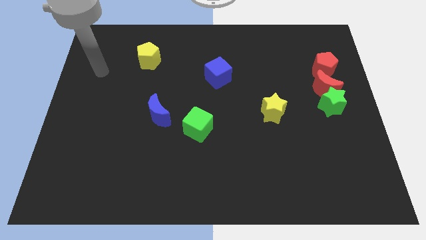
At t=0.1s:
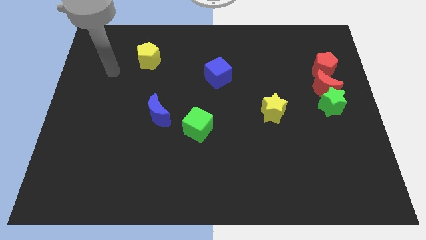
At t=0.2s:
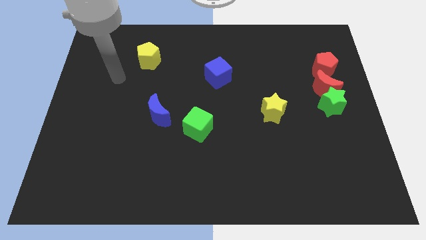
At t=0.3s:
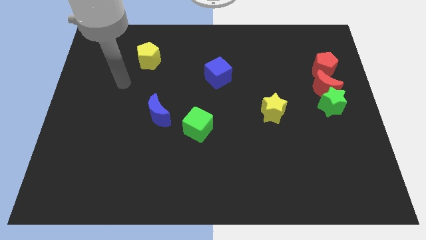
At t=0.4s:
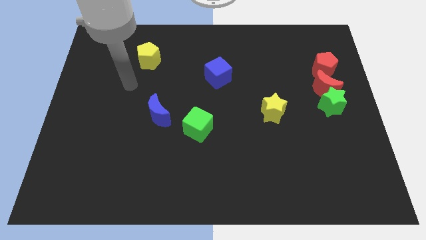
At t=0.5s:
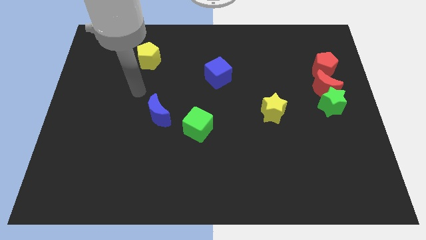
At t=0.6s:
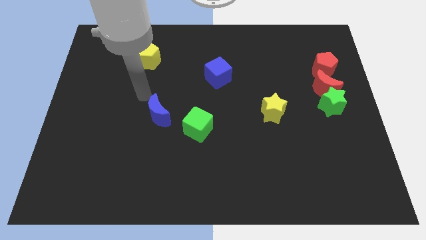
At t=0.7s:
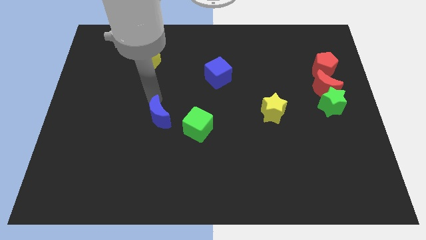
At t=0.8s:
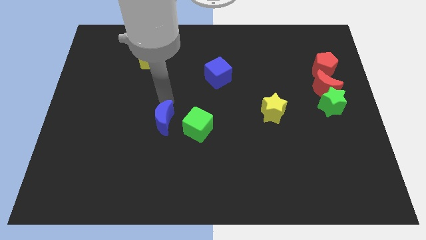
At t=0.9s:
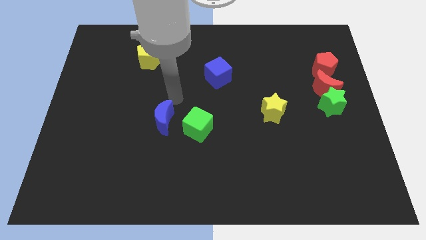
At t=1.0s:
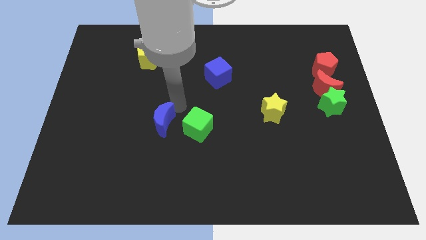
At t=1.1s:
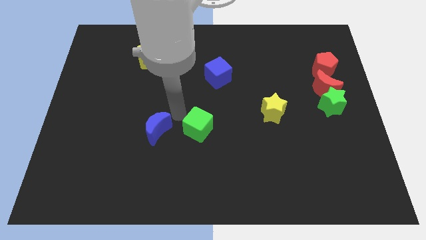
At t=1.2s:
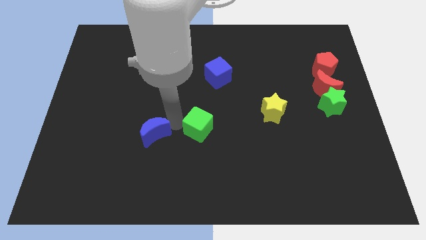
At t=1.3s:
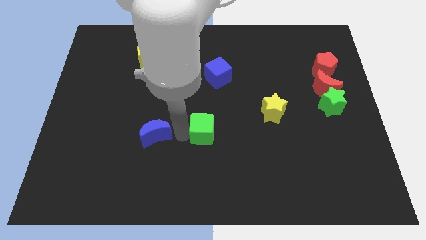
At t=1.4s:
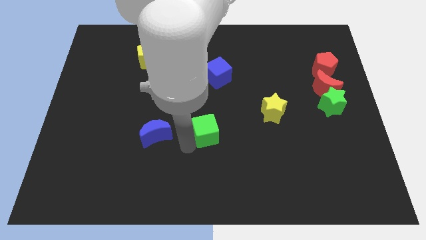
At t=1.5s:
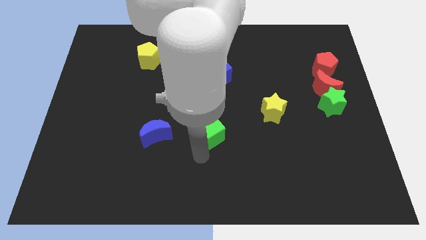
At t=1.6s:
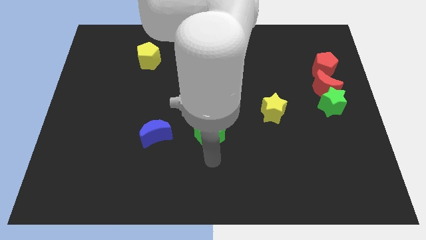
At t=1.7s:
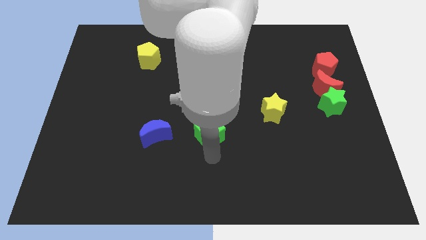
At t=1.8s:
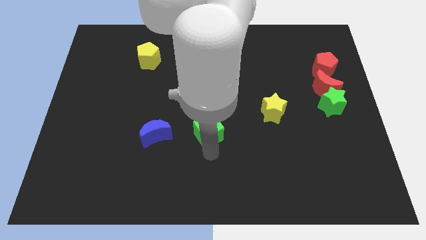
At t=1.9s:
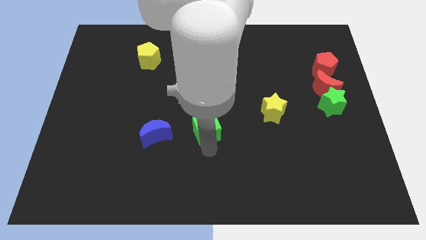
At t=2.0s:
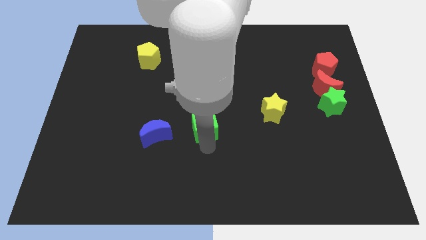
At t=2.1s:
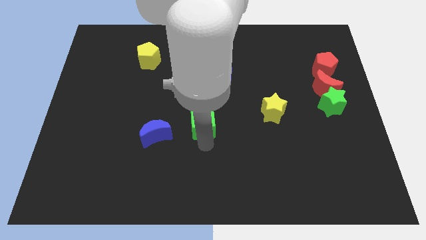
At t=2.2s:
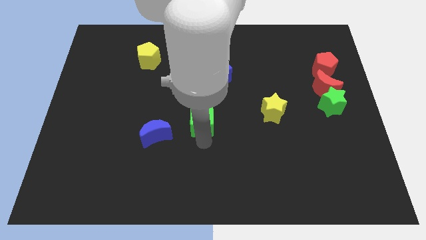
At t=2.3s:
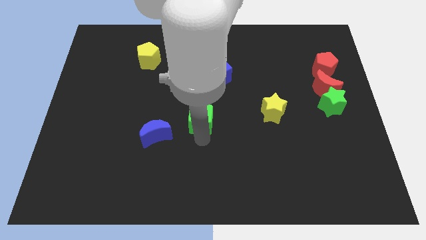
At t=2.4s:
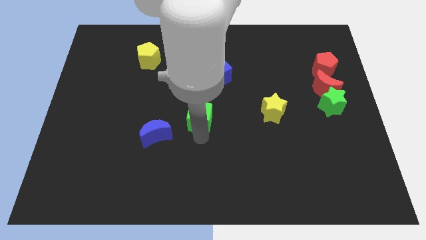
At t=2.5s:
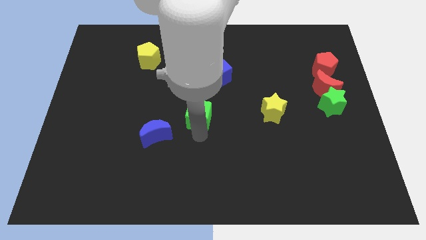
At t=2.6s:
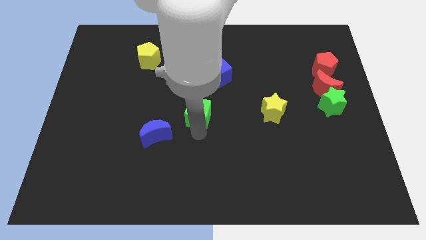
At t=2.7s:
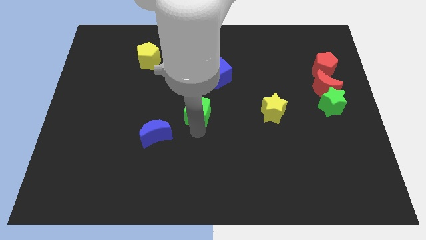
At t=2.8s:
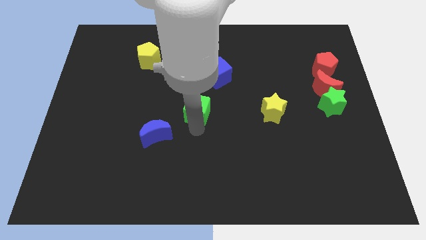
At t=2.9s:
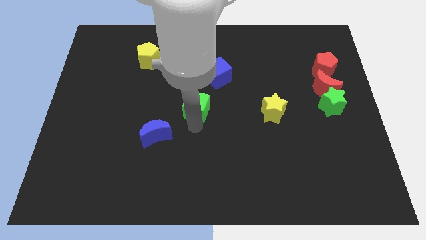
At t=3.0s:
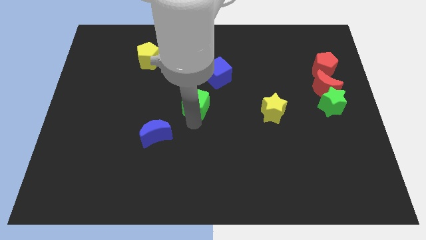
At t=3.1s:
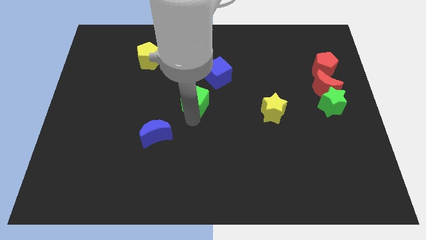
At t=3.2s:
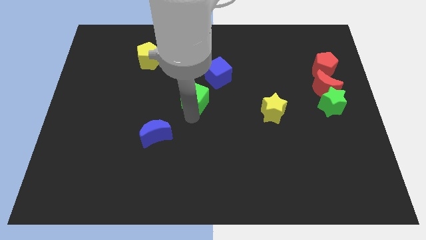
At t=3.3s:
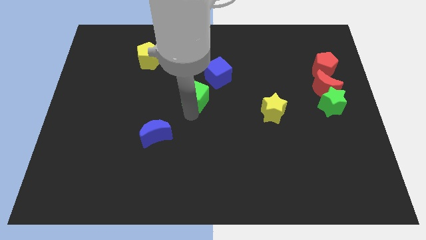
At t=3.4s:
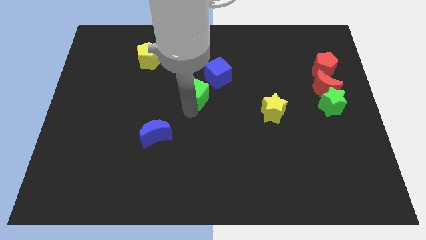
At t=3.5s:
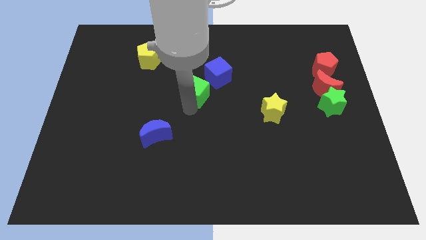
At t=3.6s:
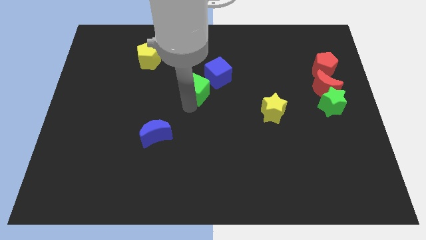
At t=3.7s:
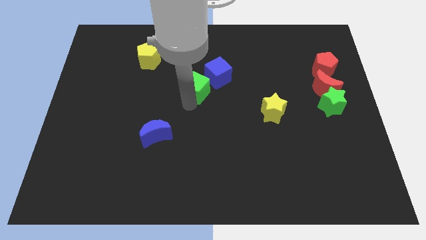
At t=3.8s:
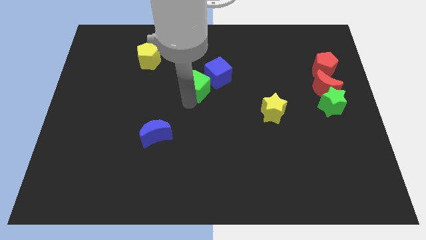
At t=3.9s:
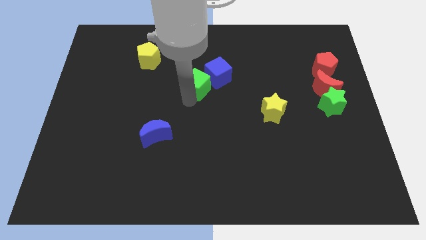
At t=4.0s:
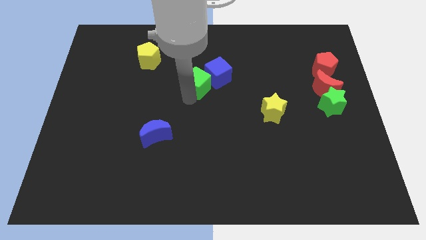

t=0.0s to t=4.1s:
push the green cube next to the blue cube

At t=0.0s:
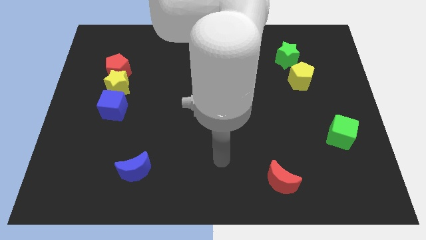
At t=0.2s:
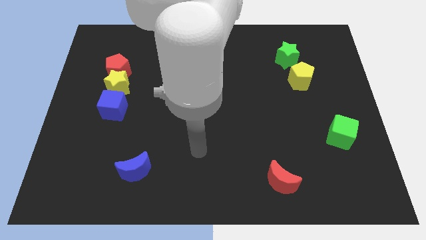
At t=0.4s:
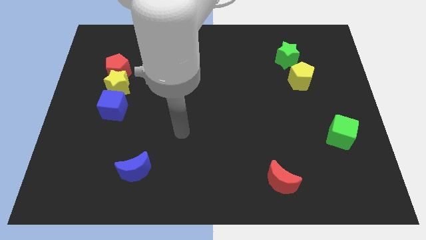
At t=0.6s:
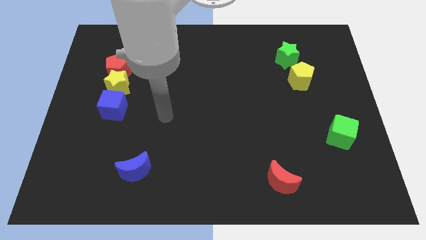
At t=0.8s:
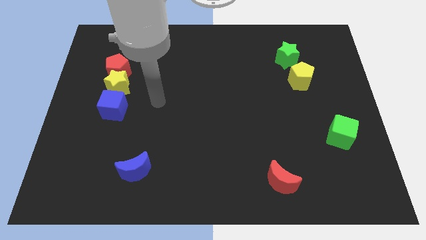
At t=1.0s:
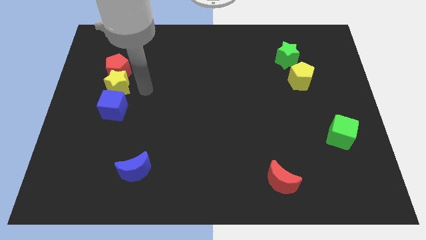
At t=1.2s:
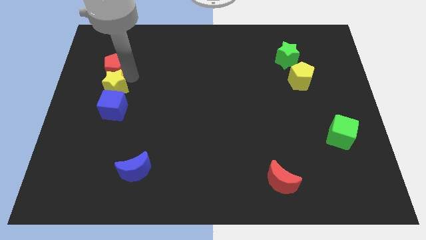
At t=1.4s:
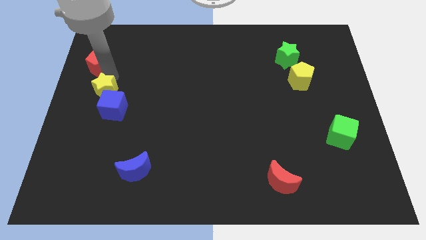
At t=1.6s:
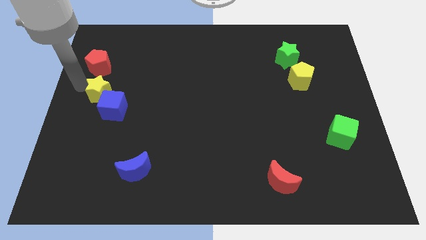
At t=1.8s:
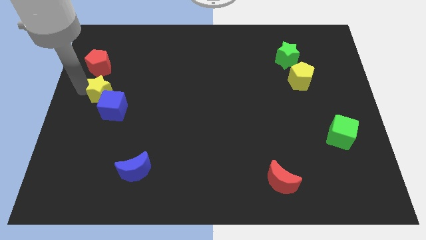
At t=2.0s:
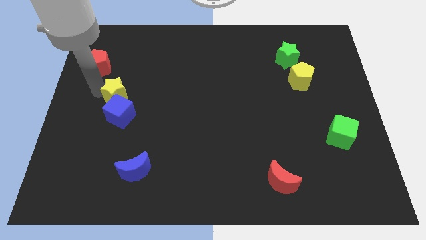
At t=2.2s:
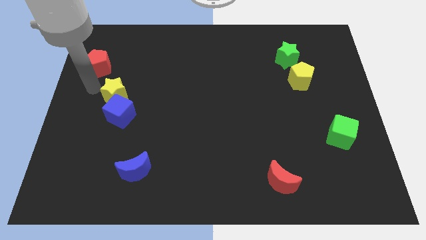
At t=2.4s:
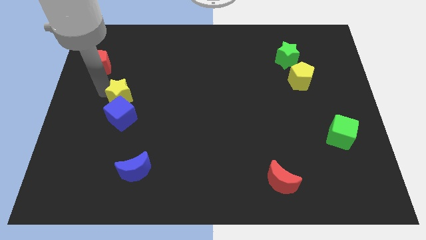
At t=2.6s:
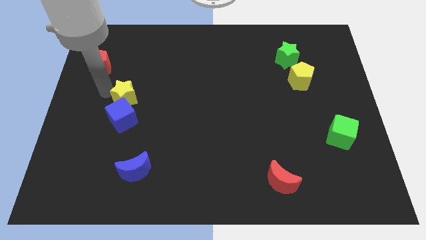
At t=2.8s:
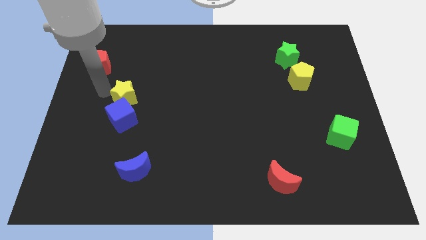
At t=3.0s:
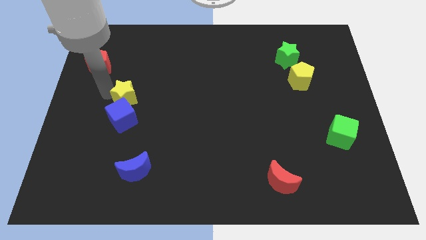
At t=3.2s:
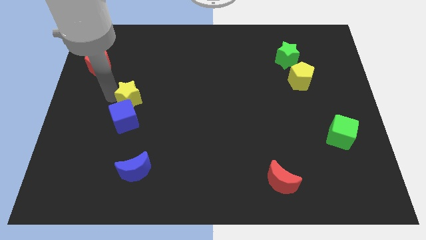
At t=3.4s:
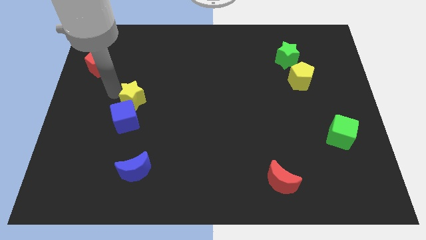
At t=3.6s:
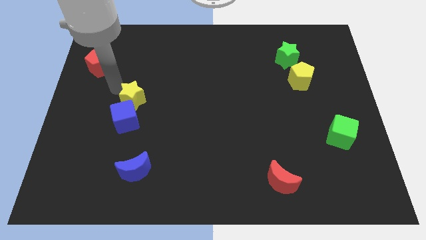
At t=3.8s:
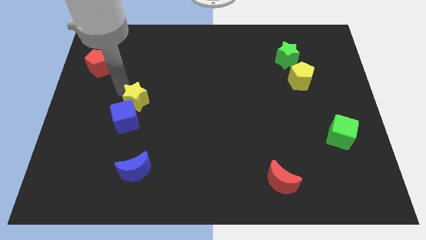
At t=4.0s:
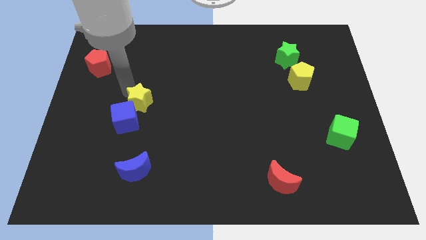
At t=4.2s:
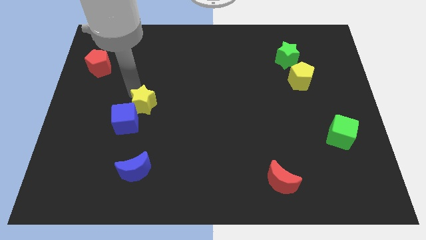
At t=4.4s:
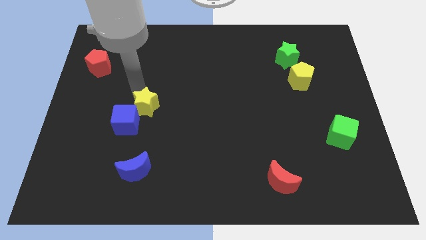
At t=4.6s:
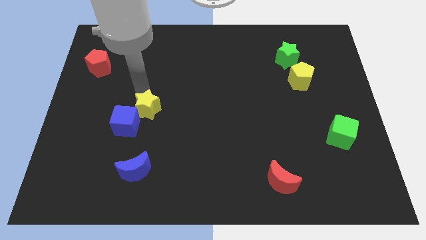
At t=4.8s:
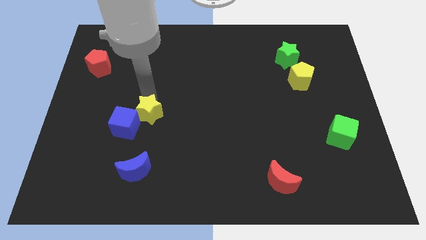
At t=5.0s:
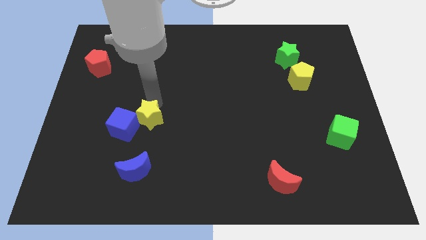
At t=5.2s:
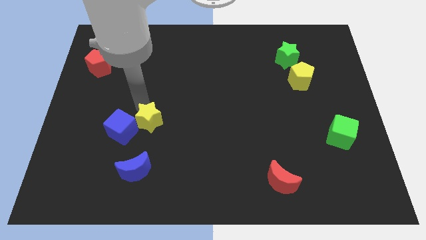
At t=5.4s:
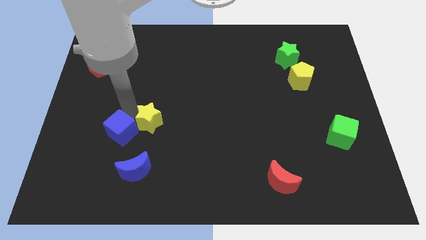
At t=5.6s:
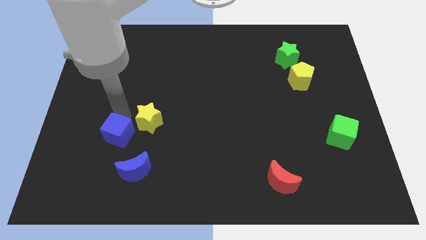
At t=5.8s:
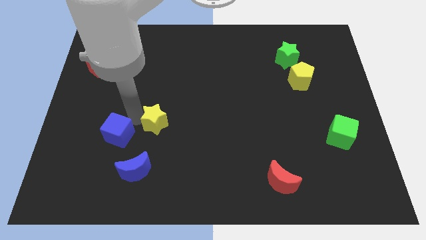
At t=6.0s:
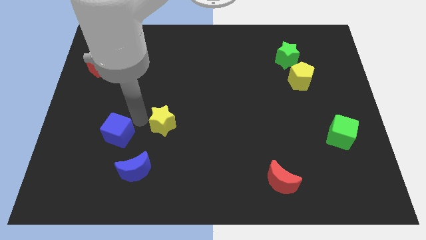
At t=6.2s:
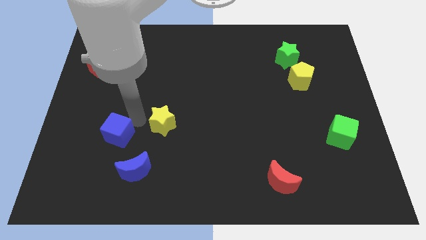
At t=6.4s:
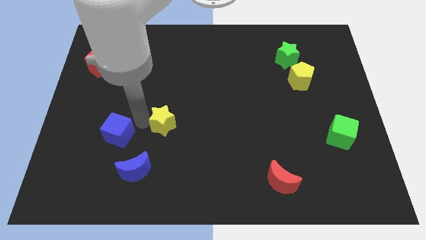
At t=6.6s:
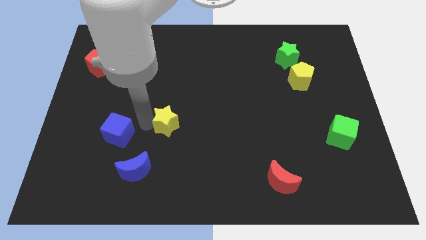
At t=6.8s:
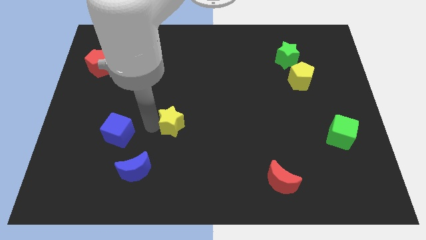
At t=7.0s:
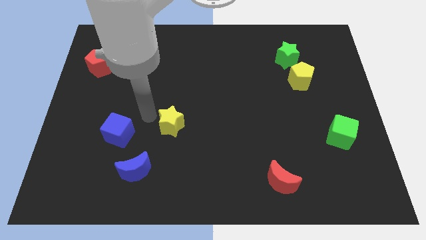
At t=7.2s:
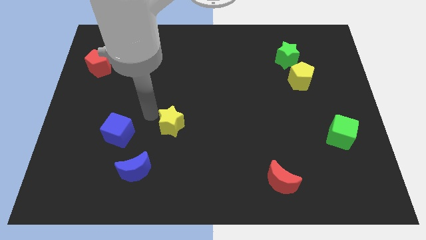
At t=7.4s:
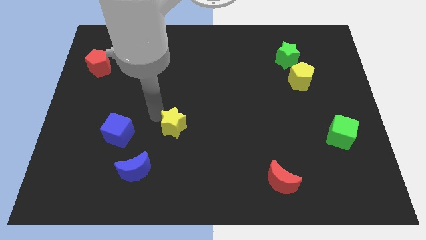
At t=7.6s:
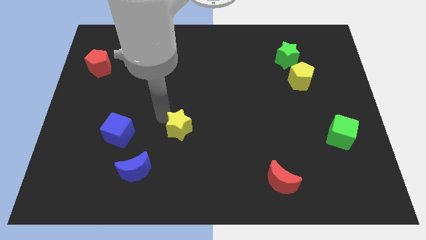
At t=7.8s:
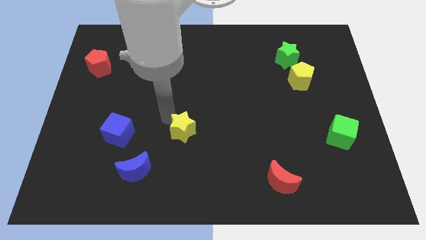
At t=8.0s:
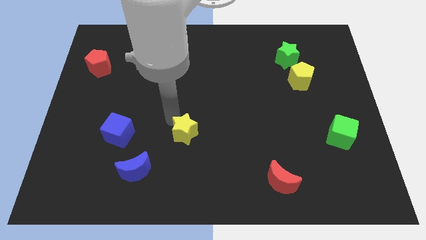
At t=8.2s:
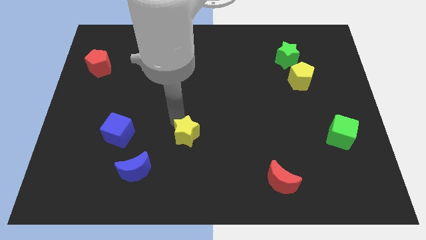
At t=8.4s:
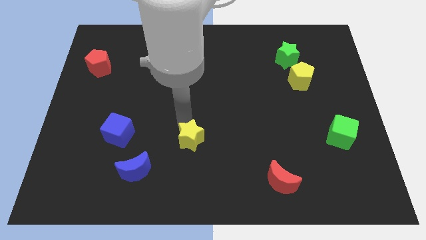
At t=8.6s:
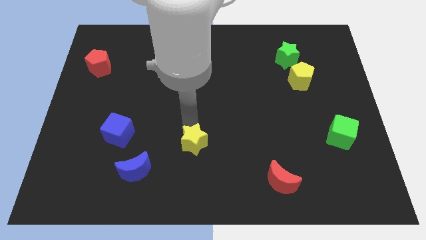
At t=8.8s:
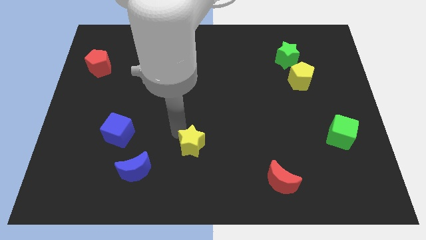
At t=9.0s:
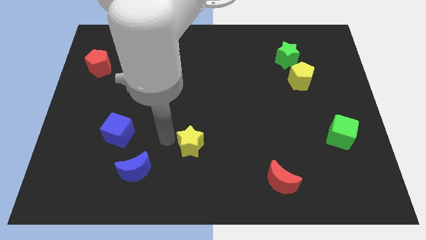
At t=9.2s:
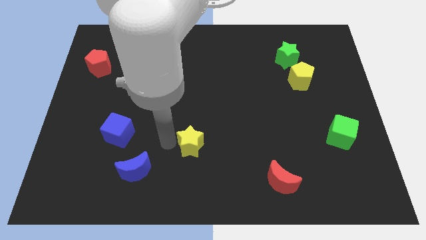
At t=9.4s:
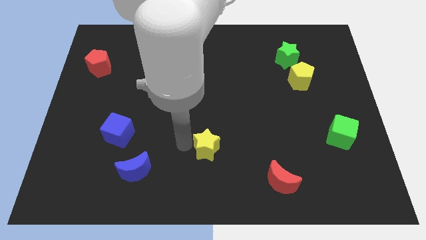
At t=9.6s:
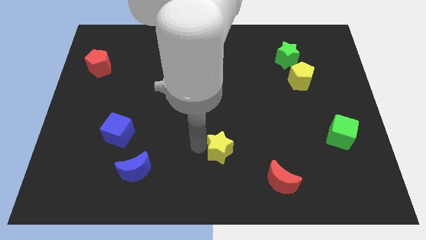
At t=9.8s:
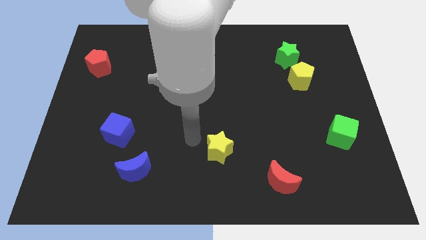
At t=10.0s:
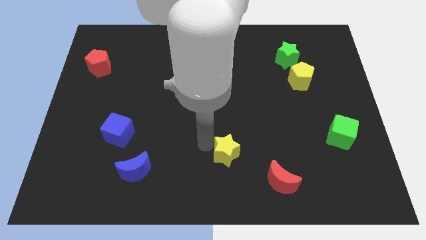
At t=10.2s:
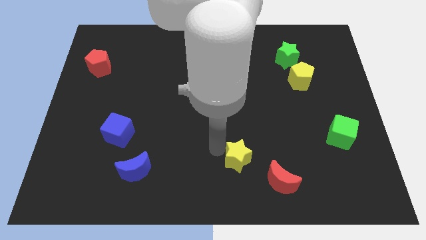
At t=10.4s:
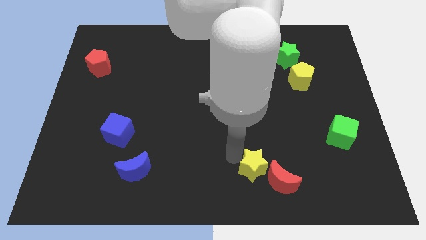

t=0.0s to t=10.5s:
push the yellow star towards the red moon
